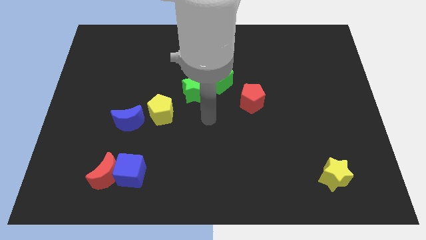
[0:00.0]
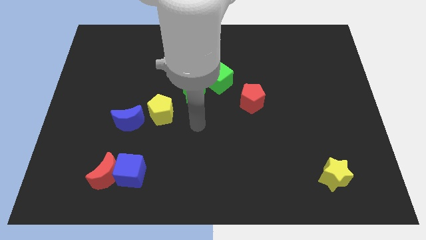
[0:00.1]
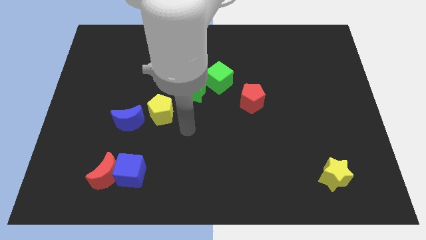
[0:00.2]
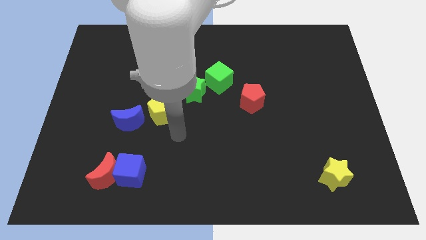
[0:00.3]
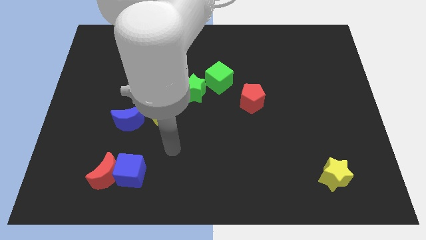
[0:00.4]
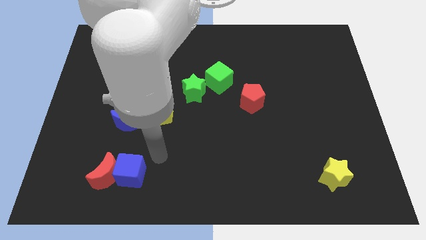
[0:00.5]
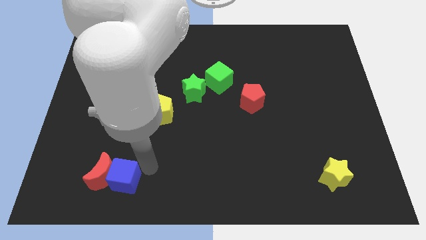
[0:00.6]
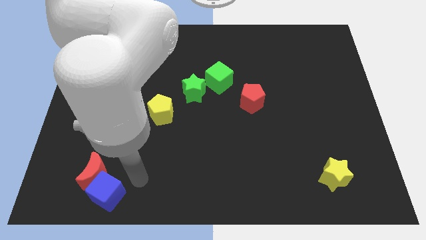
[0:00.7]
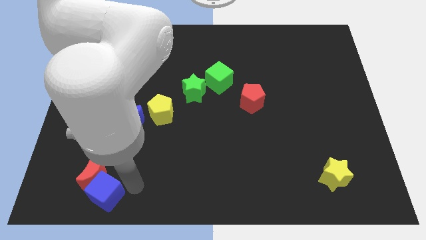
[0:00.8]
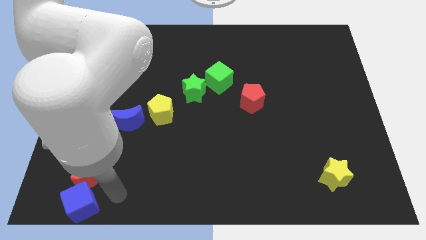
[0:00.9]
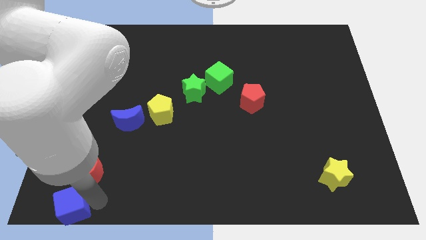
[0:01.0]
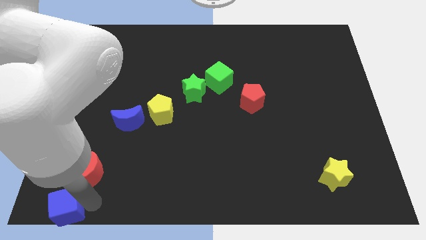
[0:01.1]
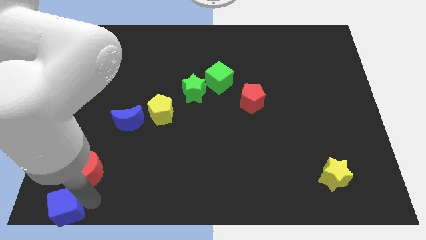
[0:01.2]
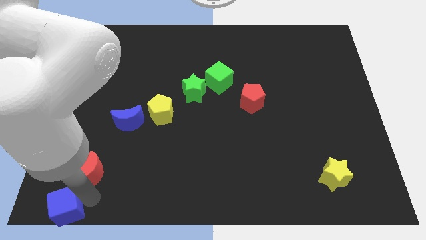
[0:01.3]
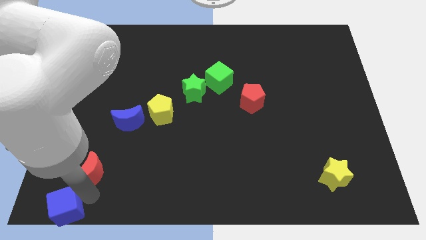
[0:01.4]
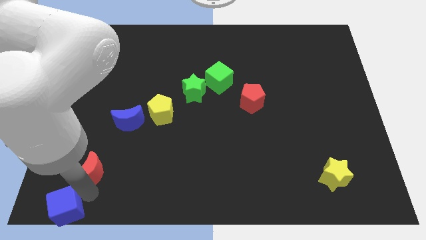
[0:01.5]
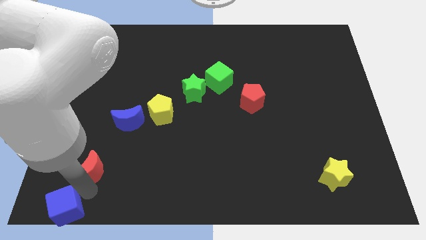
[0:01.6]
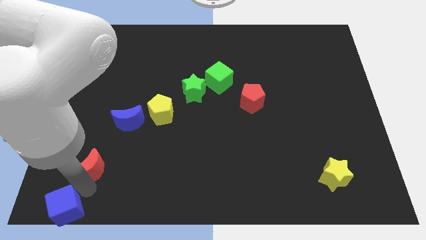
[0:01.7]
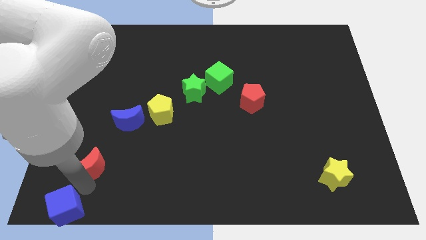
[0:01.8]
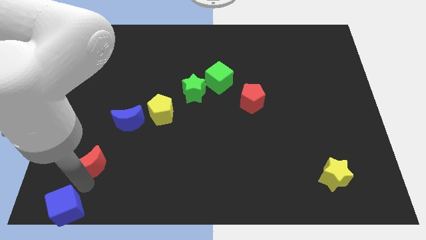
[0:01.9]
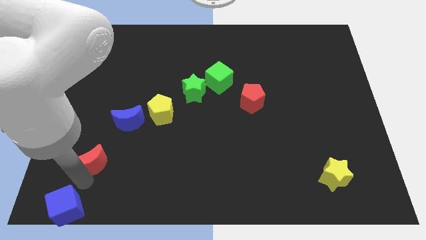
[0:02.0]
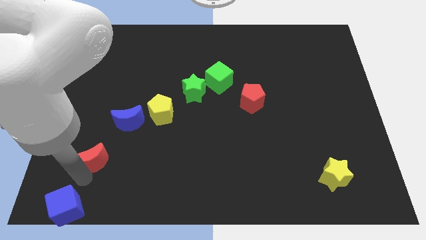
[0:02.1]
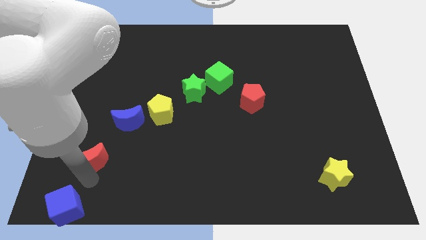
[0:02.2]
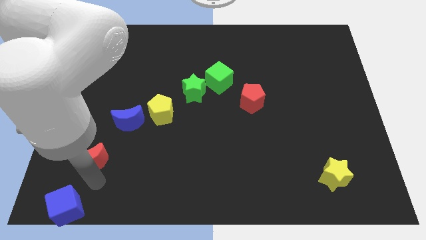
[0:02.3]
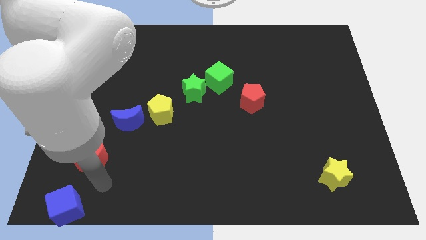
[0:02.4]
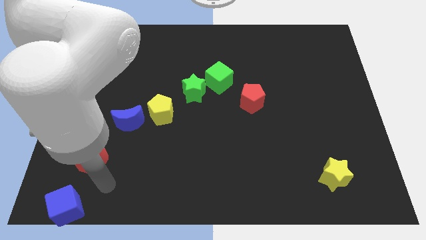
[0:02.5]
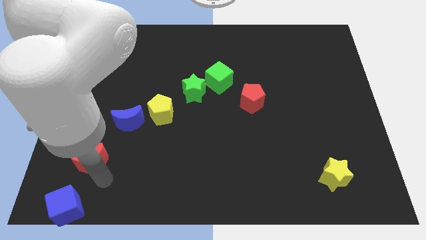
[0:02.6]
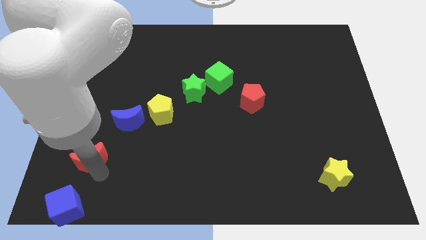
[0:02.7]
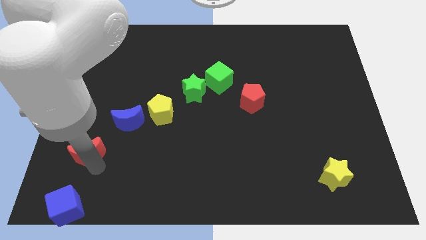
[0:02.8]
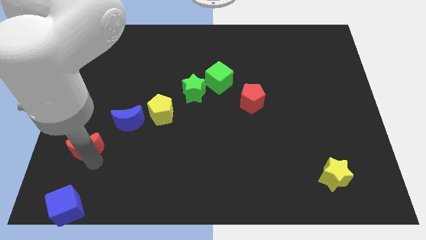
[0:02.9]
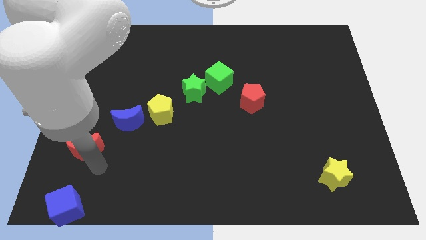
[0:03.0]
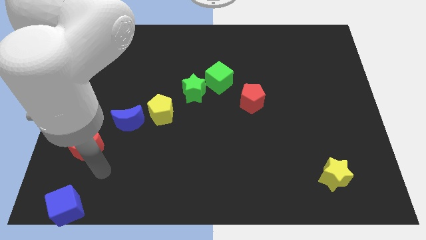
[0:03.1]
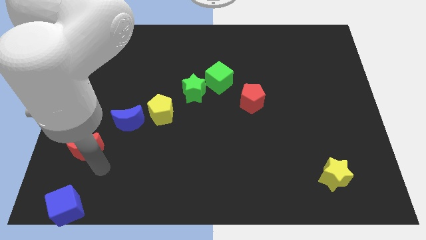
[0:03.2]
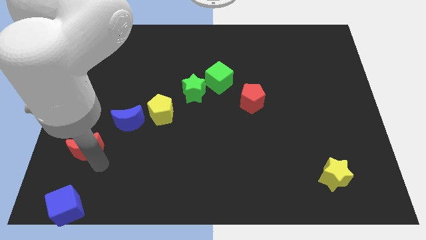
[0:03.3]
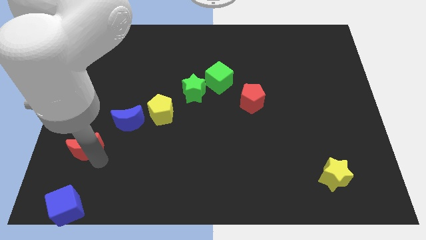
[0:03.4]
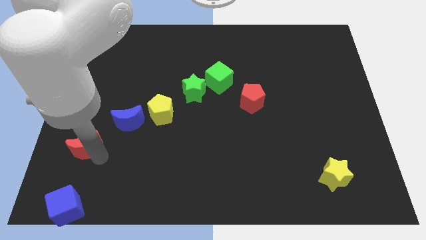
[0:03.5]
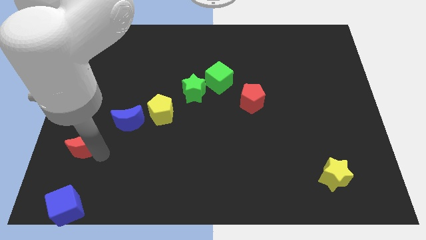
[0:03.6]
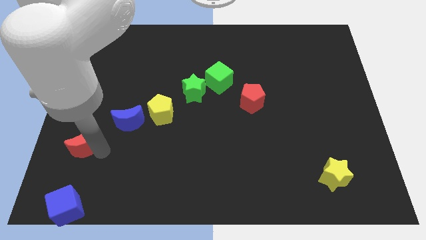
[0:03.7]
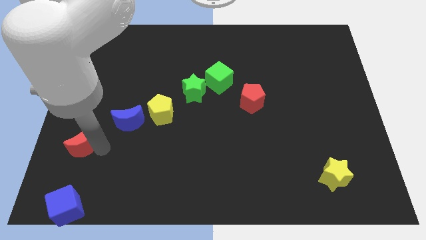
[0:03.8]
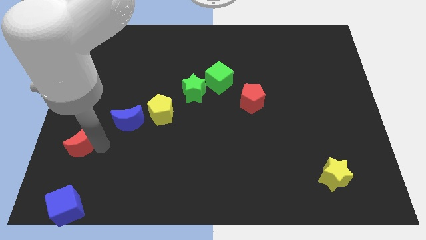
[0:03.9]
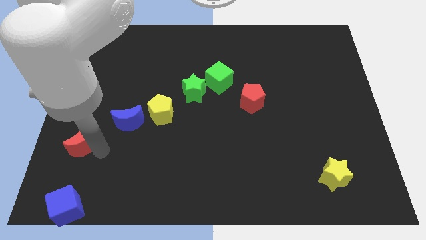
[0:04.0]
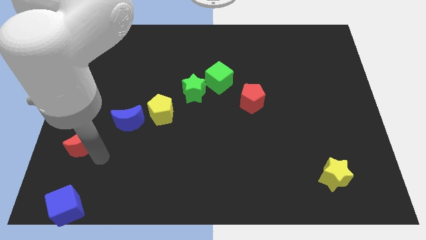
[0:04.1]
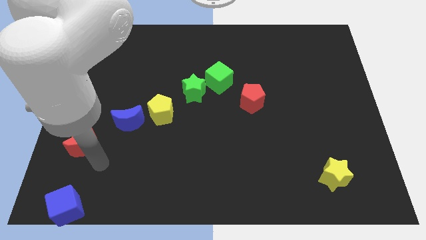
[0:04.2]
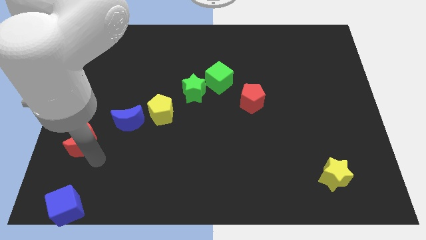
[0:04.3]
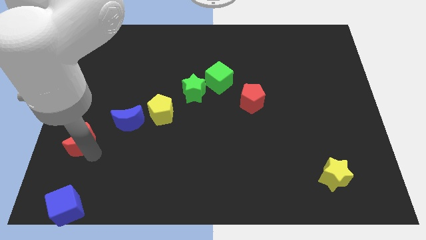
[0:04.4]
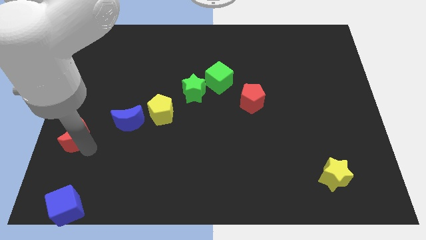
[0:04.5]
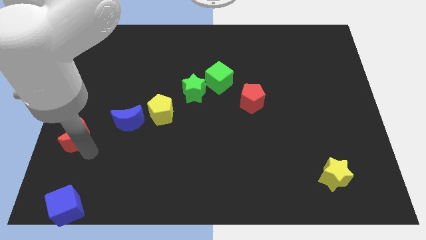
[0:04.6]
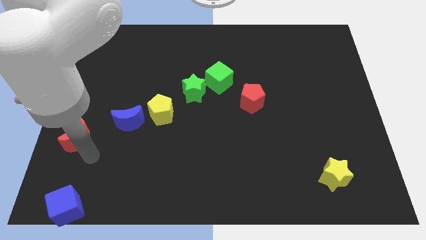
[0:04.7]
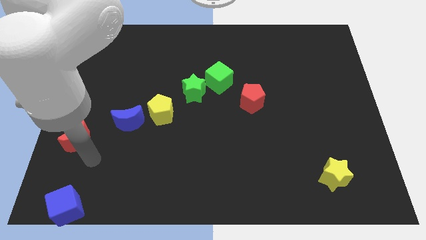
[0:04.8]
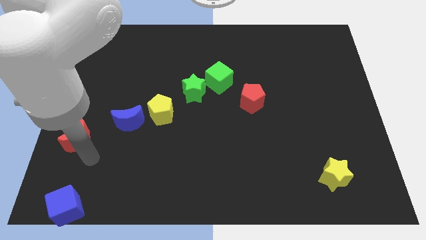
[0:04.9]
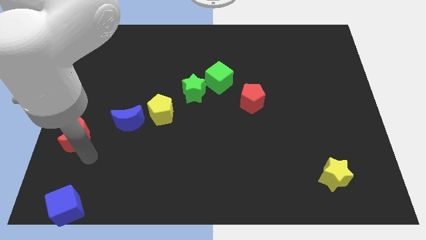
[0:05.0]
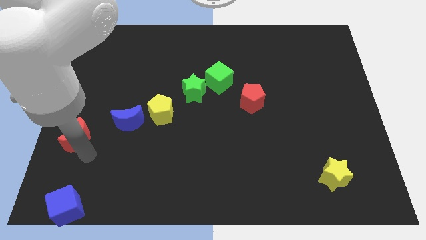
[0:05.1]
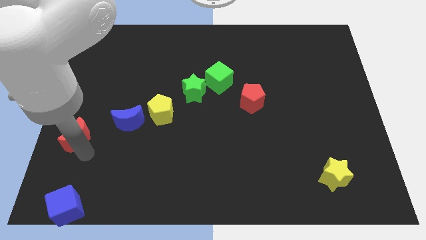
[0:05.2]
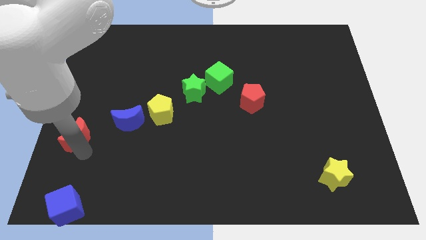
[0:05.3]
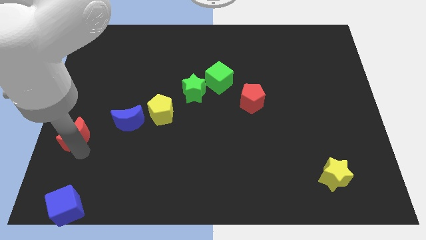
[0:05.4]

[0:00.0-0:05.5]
push the red moon to the left side of the board

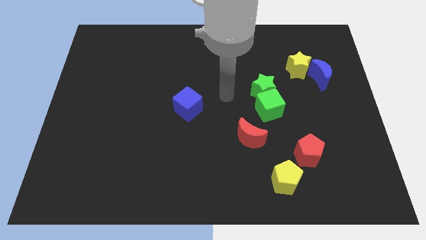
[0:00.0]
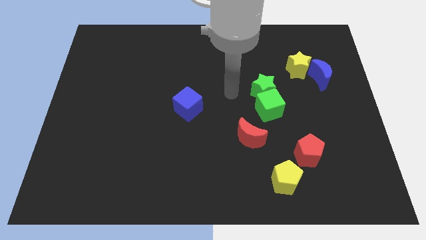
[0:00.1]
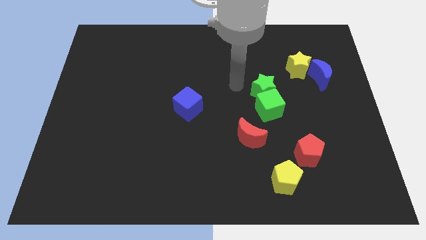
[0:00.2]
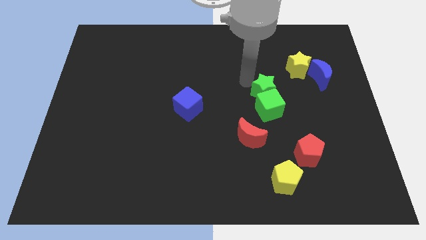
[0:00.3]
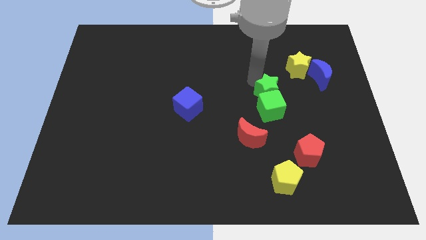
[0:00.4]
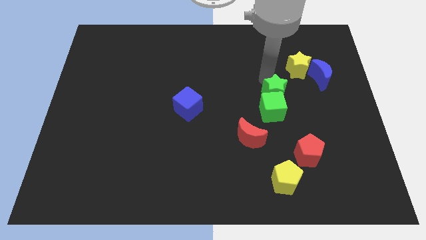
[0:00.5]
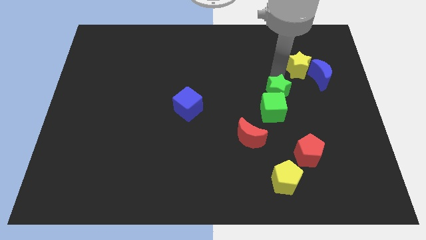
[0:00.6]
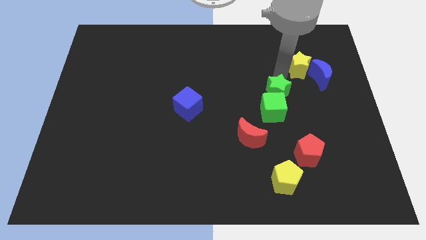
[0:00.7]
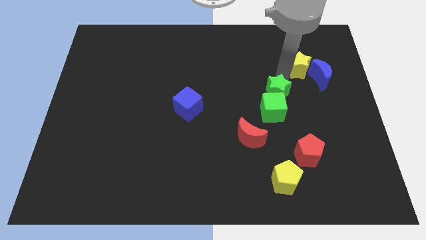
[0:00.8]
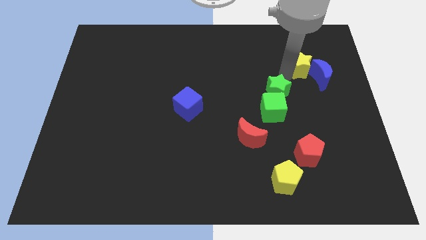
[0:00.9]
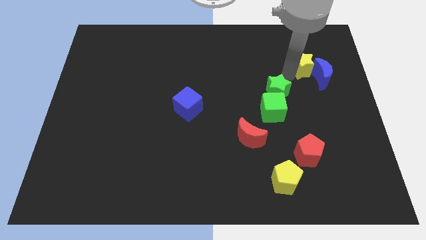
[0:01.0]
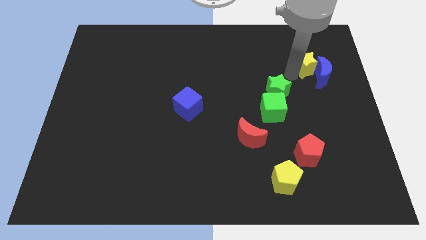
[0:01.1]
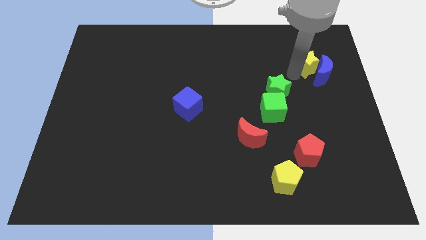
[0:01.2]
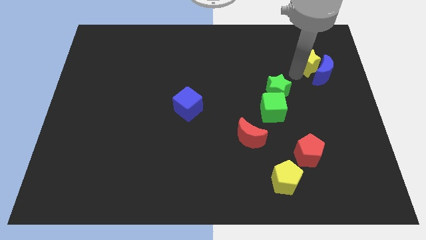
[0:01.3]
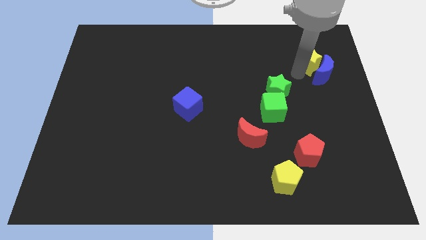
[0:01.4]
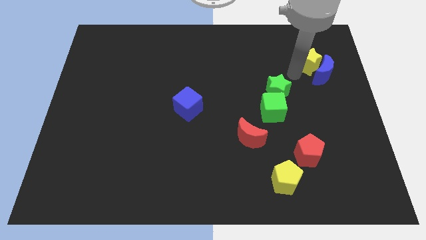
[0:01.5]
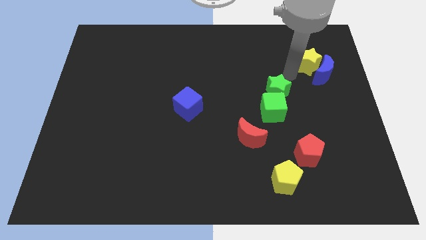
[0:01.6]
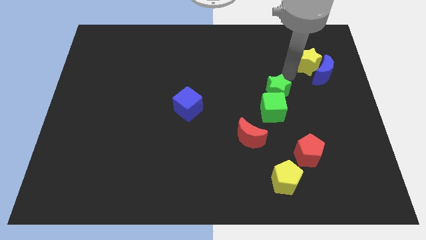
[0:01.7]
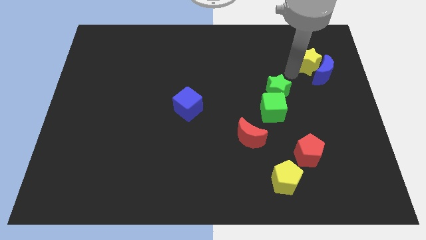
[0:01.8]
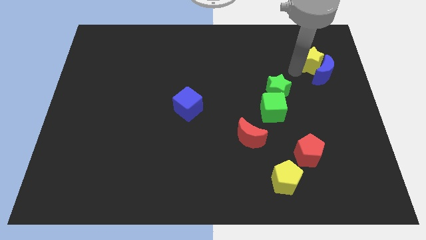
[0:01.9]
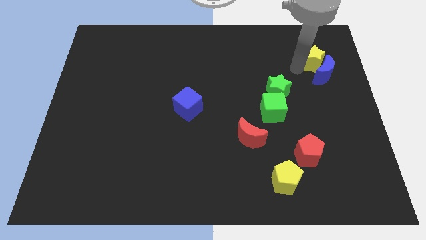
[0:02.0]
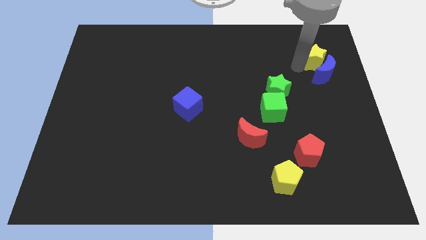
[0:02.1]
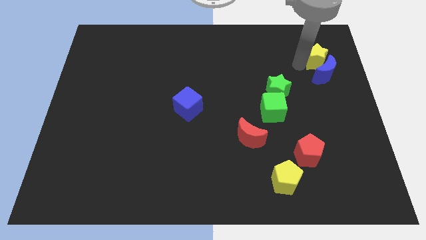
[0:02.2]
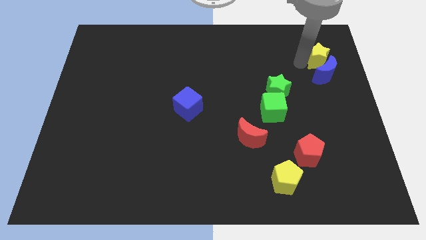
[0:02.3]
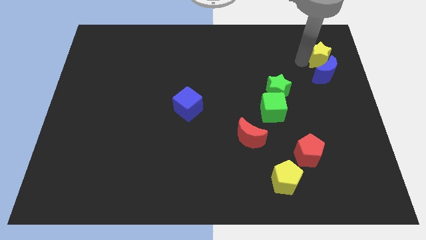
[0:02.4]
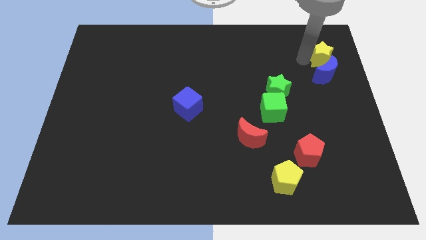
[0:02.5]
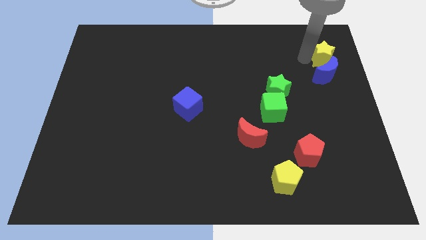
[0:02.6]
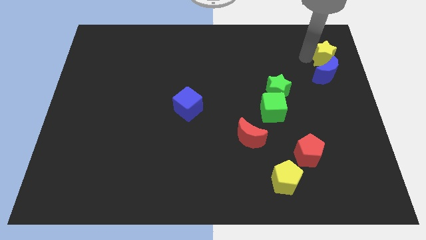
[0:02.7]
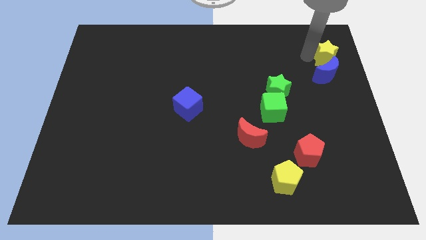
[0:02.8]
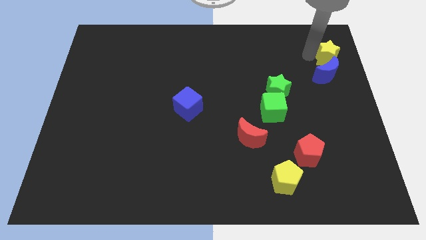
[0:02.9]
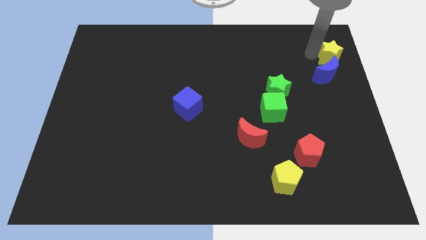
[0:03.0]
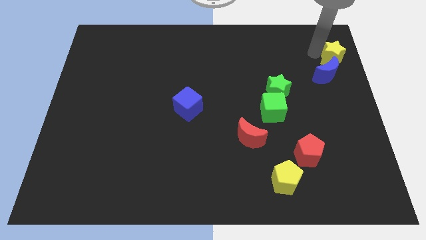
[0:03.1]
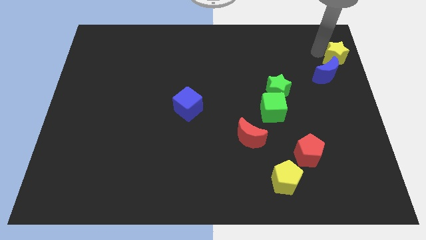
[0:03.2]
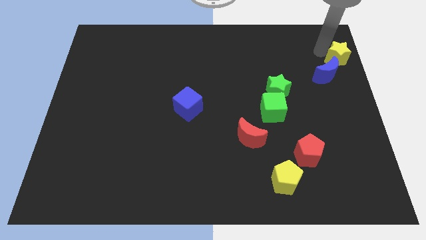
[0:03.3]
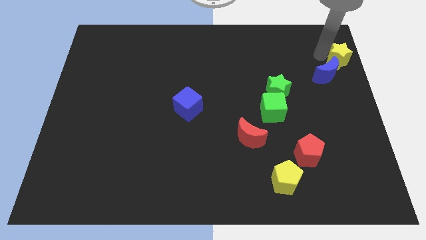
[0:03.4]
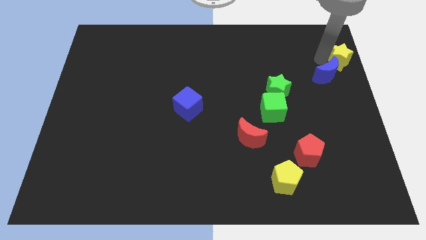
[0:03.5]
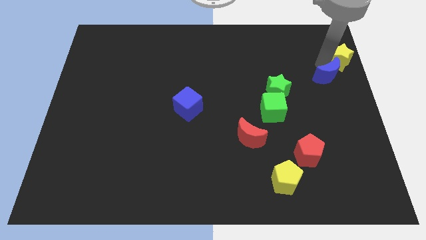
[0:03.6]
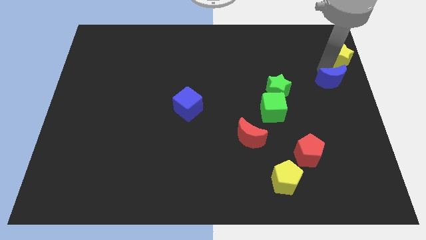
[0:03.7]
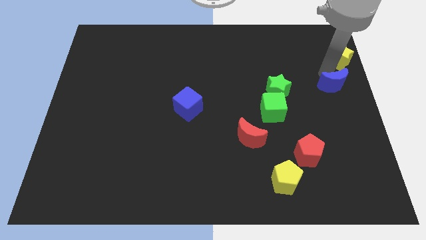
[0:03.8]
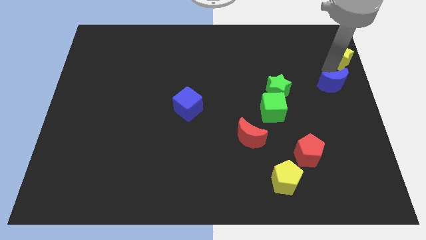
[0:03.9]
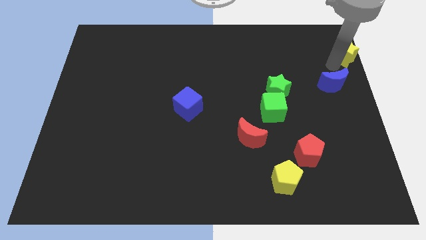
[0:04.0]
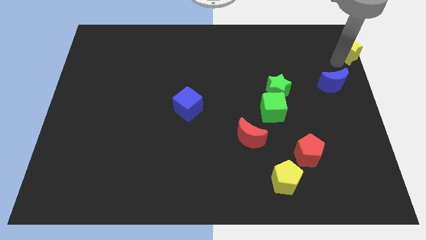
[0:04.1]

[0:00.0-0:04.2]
move the yellow star to the upper right corner
